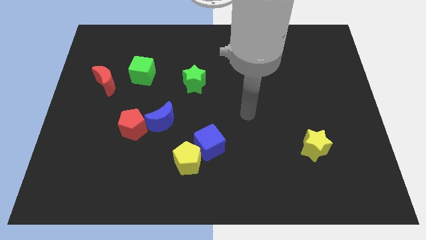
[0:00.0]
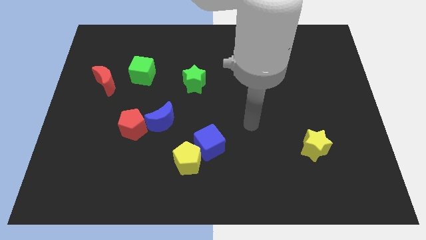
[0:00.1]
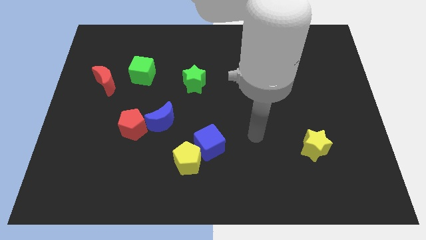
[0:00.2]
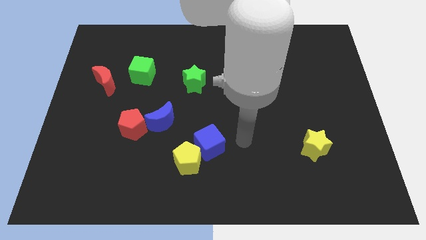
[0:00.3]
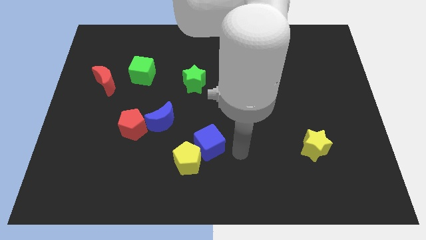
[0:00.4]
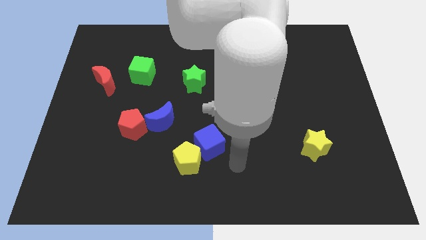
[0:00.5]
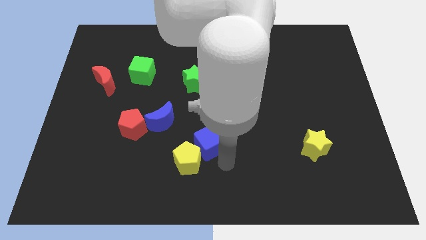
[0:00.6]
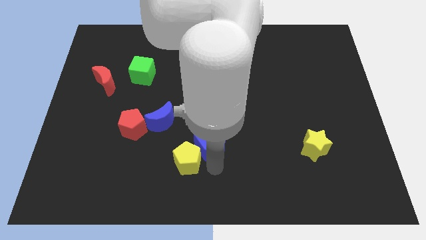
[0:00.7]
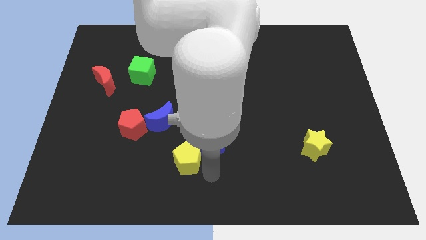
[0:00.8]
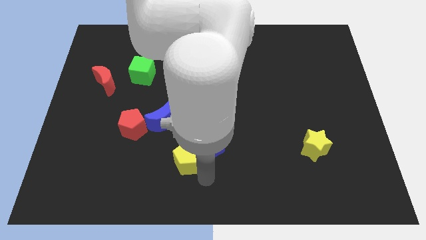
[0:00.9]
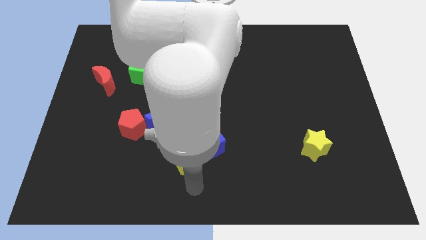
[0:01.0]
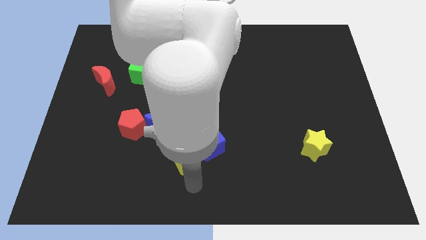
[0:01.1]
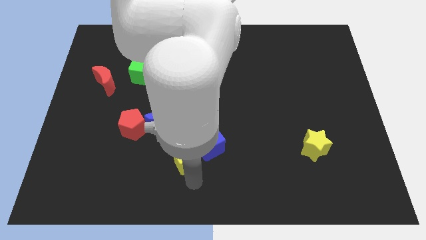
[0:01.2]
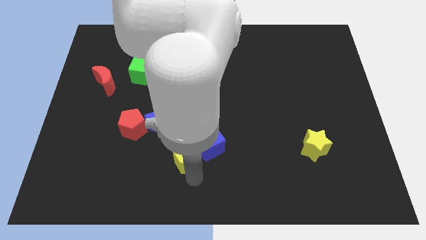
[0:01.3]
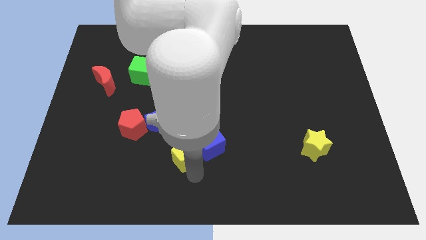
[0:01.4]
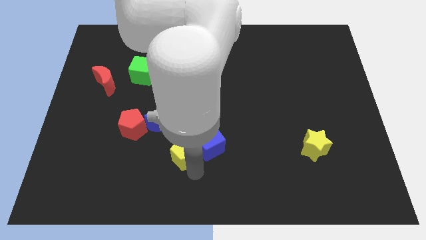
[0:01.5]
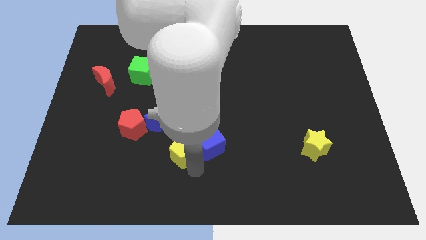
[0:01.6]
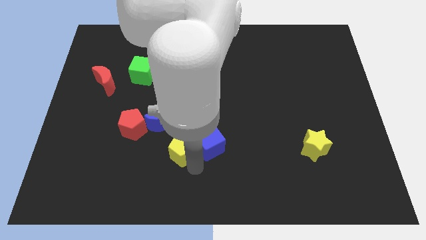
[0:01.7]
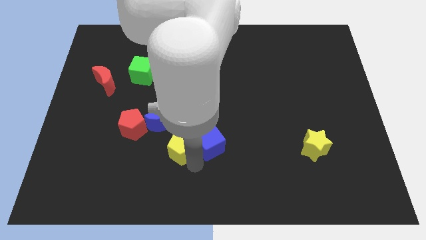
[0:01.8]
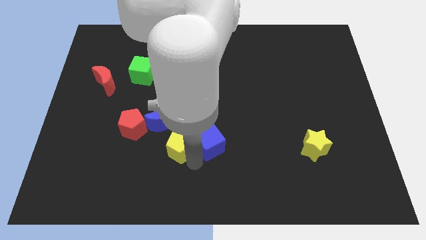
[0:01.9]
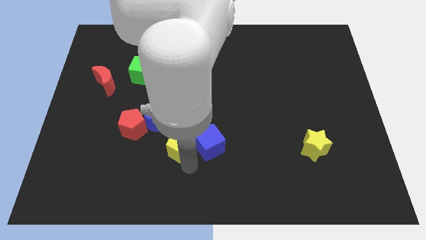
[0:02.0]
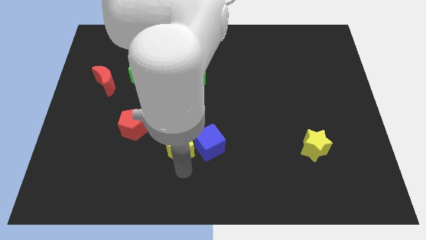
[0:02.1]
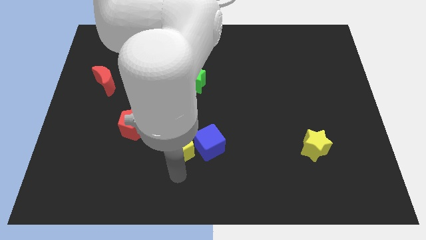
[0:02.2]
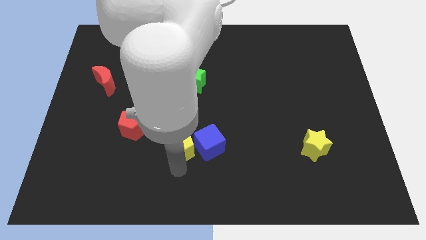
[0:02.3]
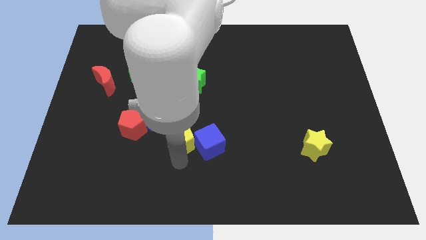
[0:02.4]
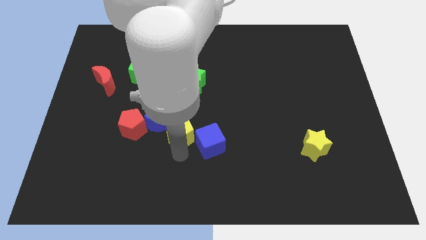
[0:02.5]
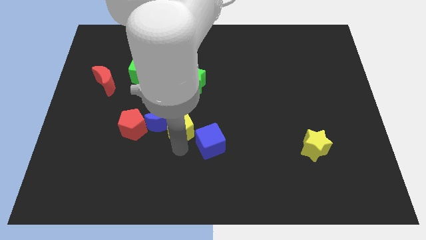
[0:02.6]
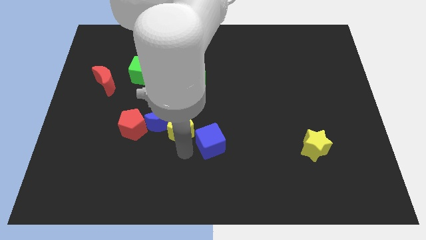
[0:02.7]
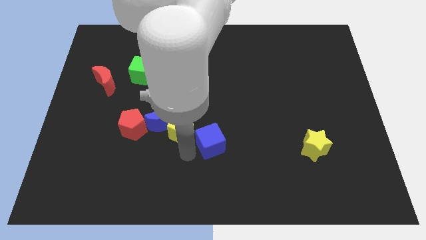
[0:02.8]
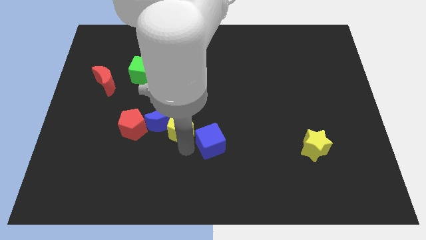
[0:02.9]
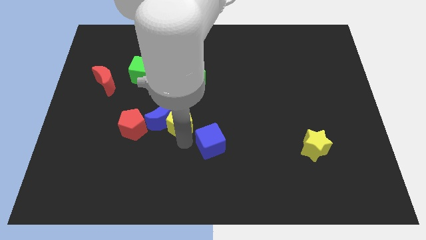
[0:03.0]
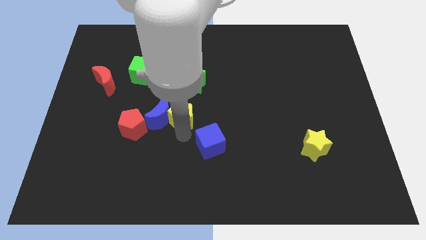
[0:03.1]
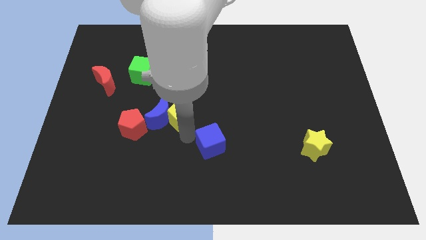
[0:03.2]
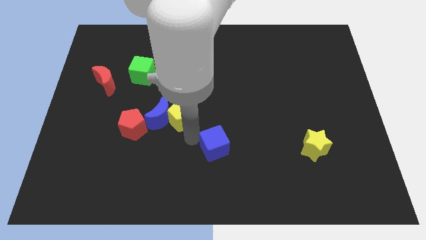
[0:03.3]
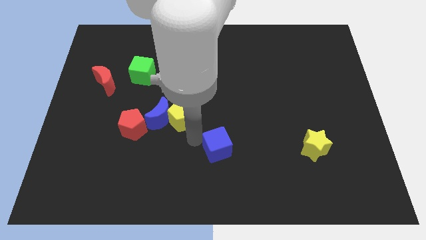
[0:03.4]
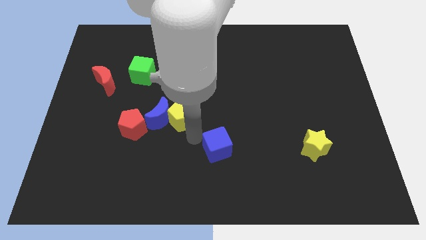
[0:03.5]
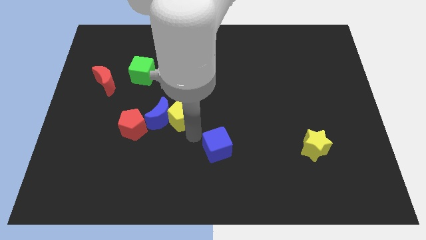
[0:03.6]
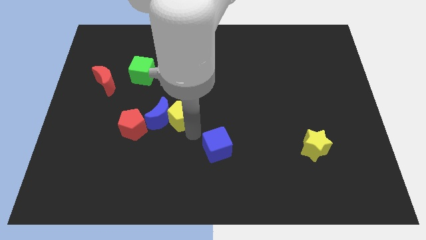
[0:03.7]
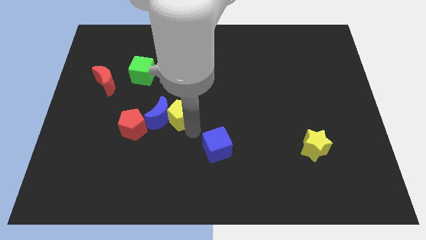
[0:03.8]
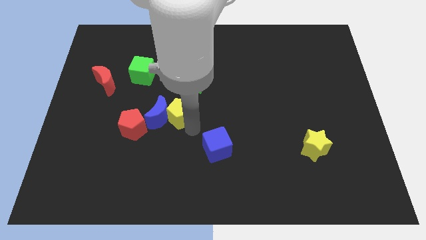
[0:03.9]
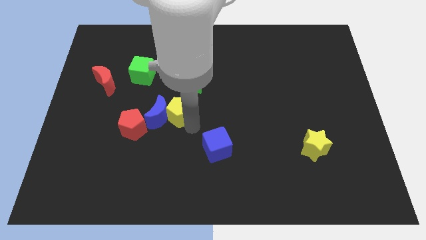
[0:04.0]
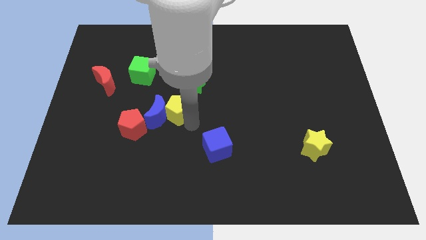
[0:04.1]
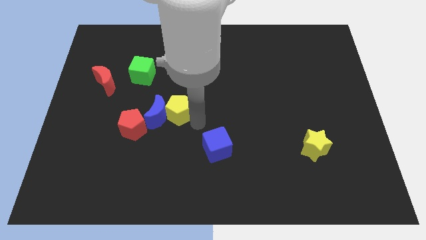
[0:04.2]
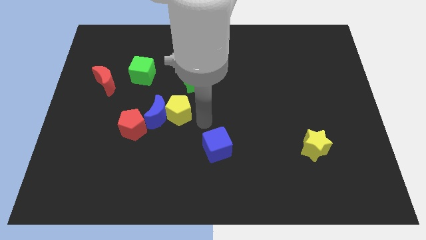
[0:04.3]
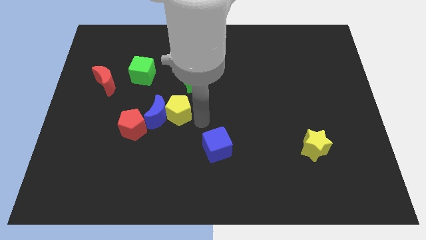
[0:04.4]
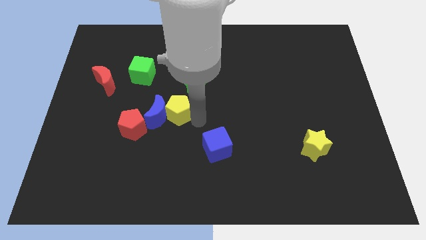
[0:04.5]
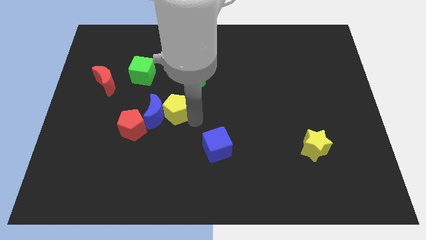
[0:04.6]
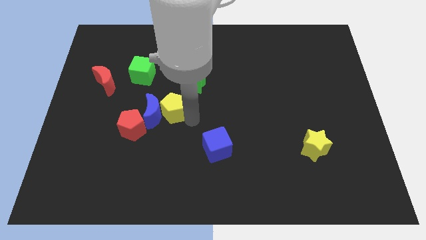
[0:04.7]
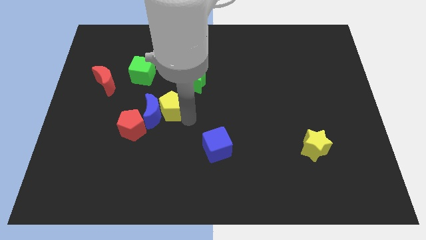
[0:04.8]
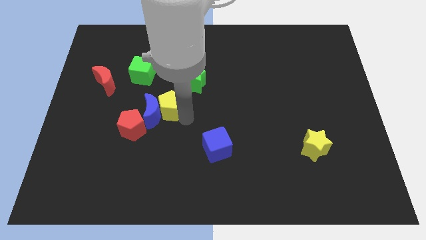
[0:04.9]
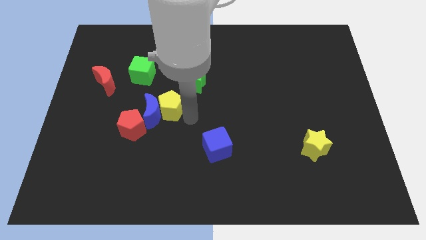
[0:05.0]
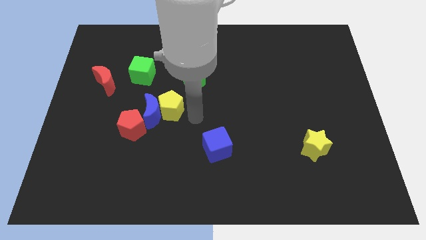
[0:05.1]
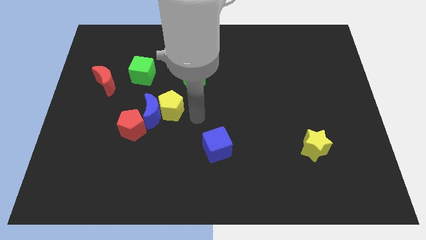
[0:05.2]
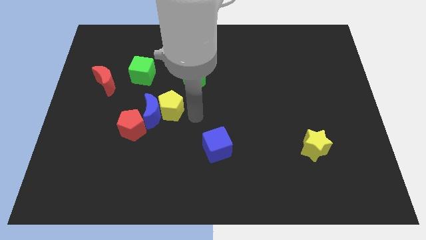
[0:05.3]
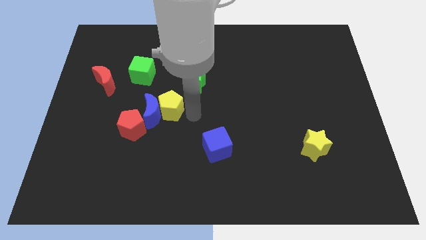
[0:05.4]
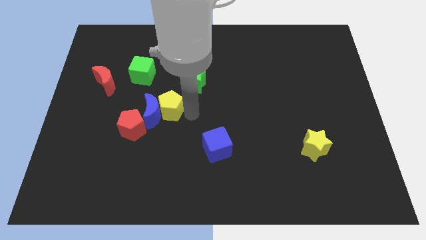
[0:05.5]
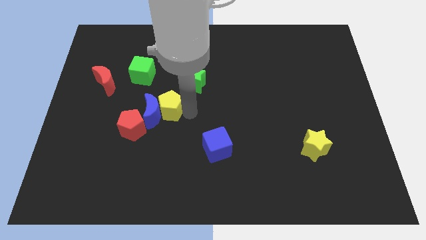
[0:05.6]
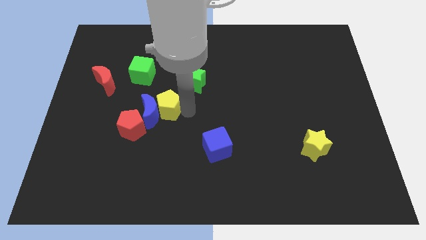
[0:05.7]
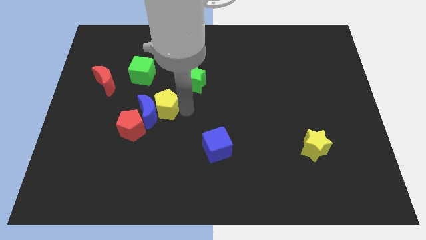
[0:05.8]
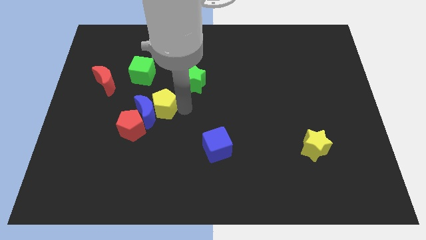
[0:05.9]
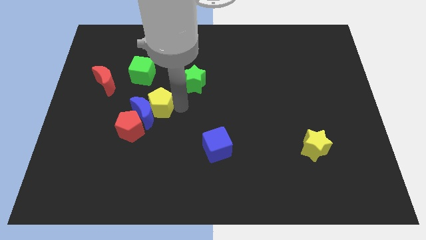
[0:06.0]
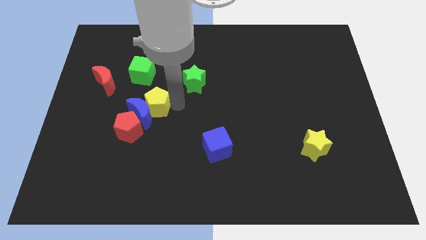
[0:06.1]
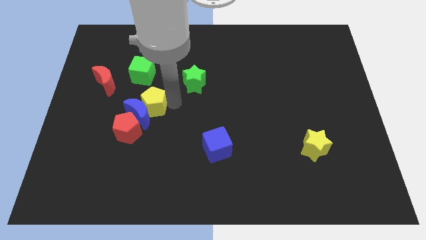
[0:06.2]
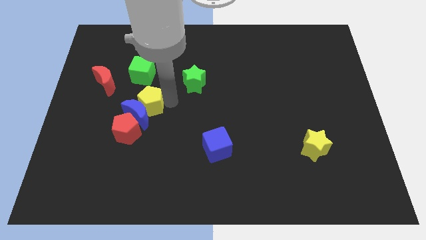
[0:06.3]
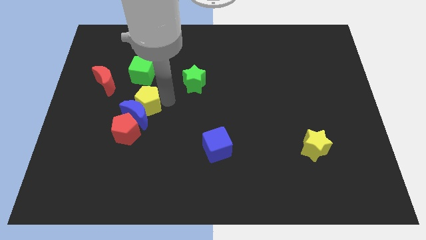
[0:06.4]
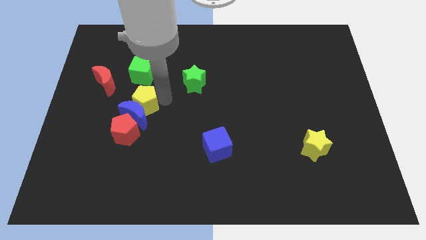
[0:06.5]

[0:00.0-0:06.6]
put the yellow pentagon diagonally down and to the right of the red moon
